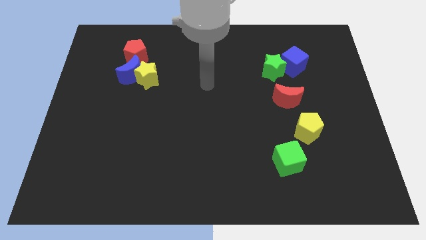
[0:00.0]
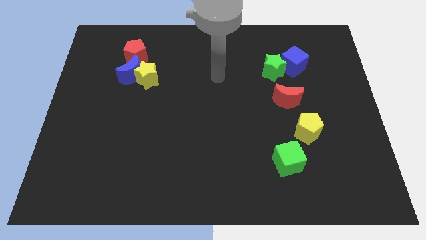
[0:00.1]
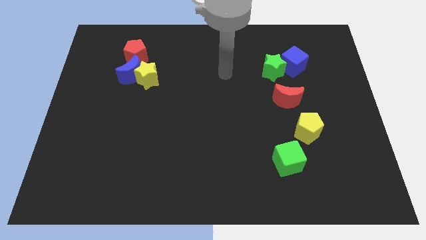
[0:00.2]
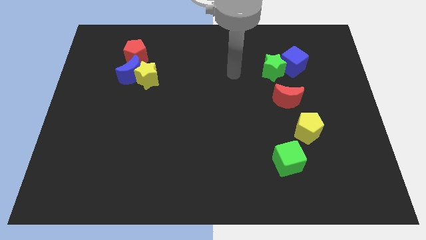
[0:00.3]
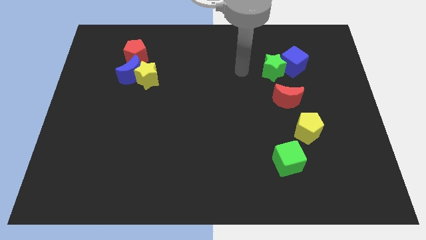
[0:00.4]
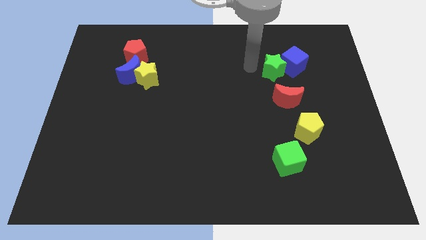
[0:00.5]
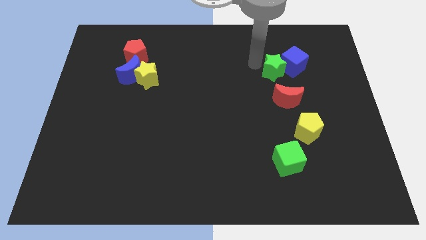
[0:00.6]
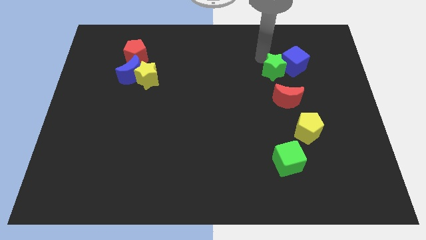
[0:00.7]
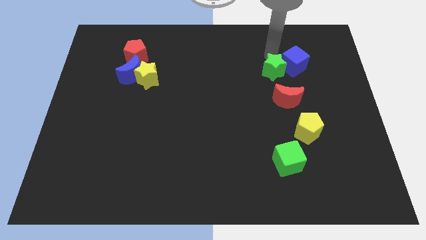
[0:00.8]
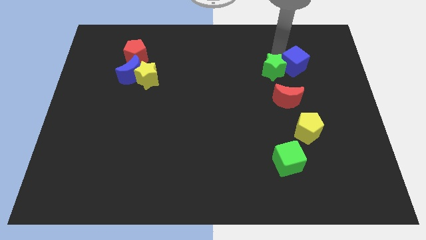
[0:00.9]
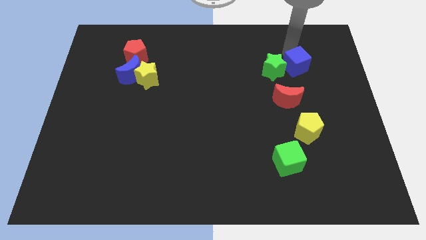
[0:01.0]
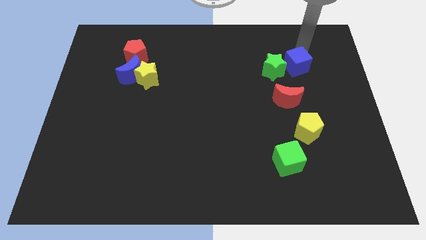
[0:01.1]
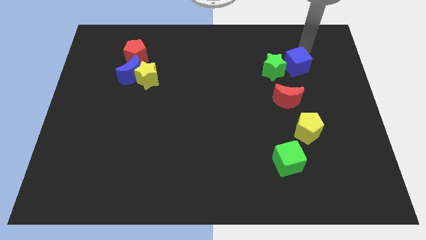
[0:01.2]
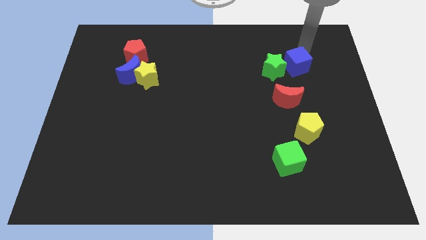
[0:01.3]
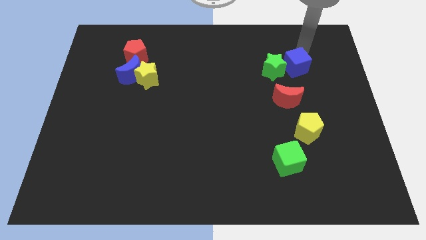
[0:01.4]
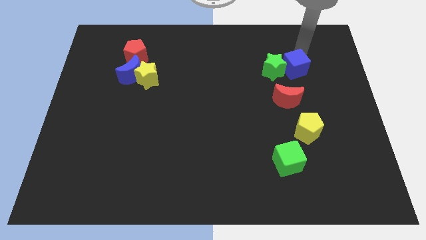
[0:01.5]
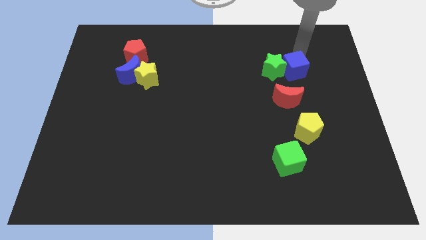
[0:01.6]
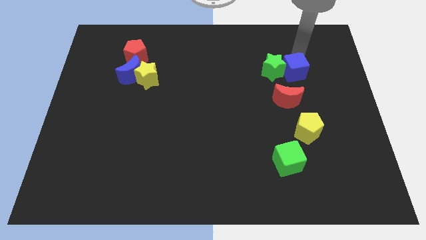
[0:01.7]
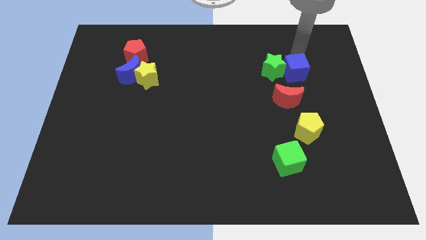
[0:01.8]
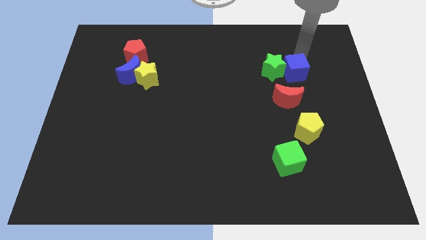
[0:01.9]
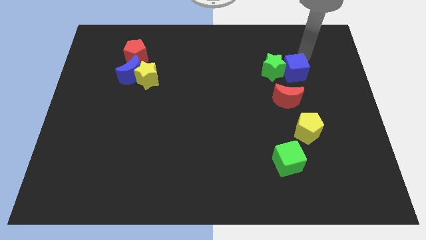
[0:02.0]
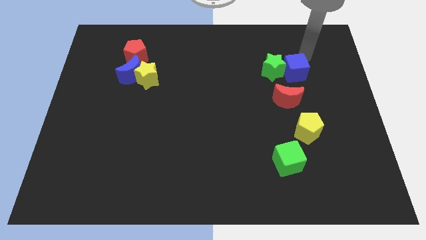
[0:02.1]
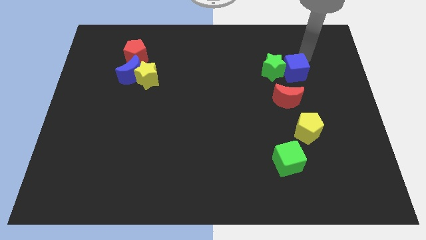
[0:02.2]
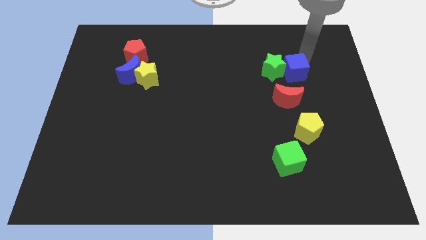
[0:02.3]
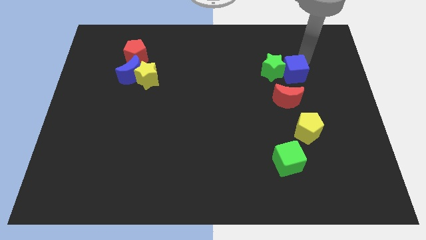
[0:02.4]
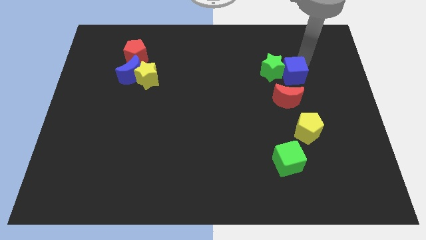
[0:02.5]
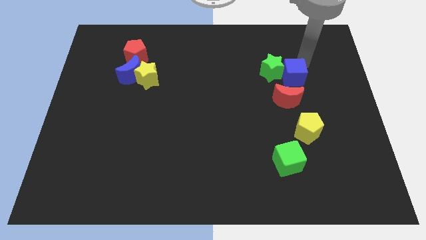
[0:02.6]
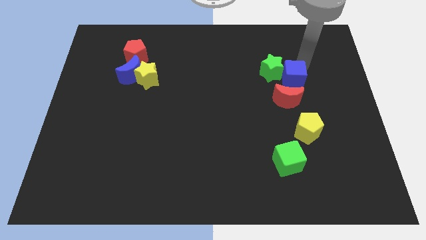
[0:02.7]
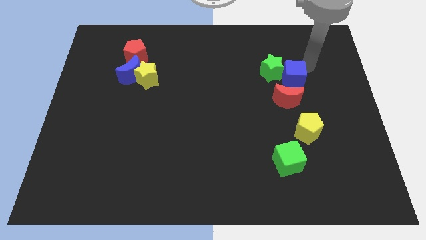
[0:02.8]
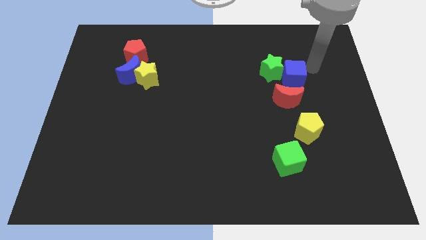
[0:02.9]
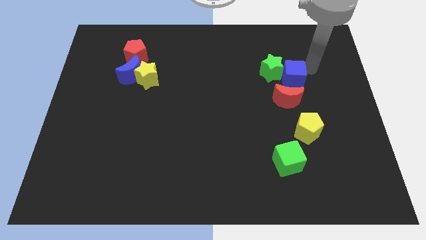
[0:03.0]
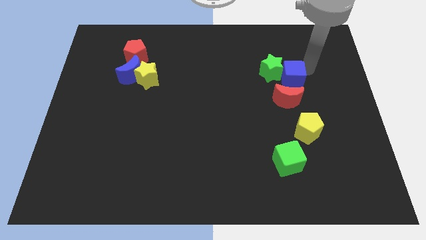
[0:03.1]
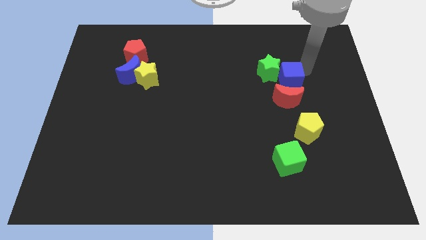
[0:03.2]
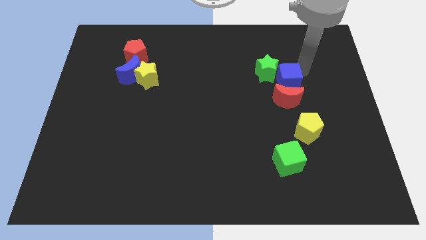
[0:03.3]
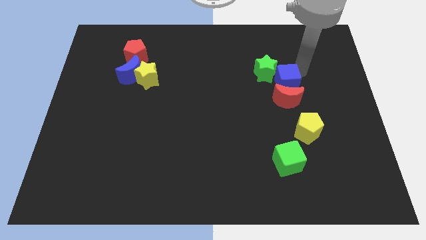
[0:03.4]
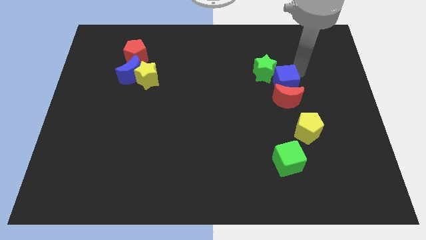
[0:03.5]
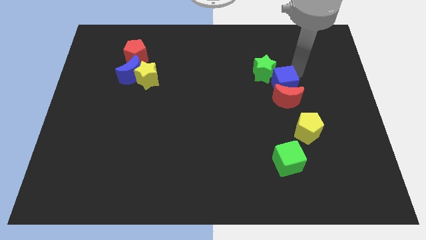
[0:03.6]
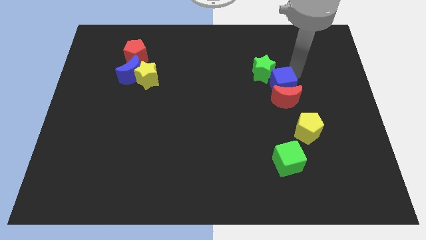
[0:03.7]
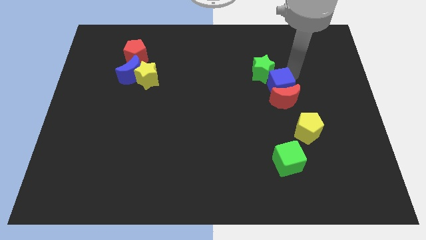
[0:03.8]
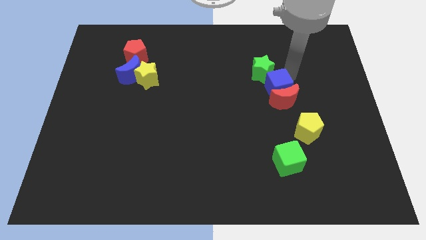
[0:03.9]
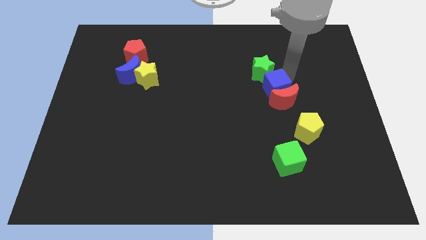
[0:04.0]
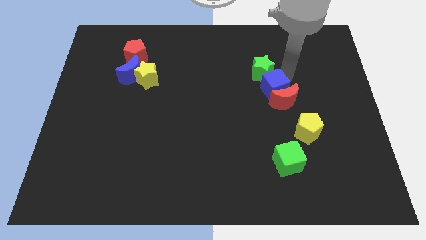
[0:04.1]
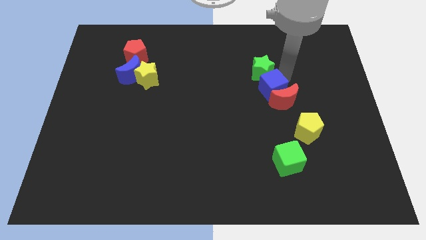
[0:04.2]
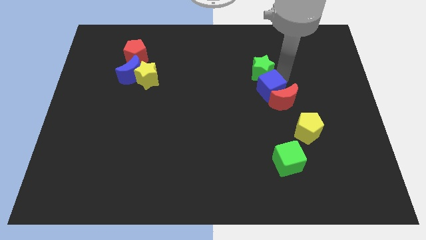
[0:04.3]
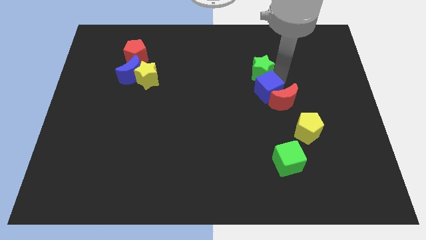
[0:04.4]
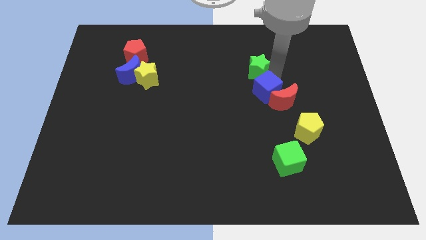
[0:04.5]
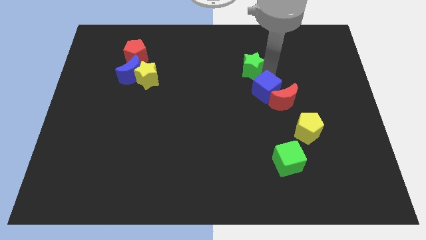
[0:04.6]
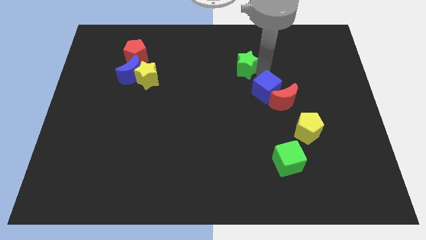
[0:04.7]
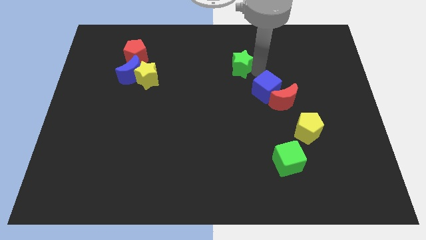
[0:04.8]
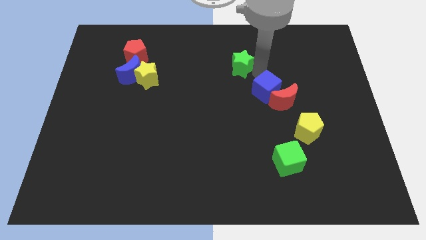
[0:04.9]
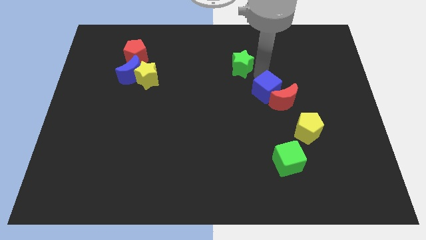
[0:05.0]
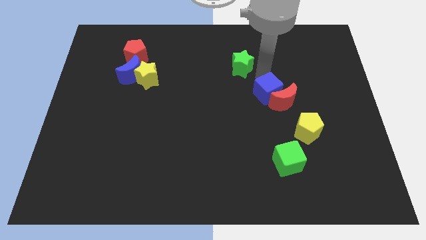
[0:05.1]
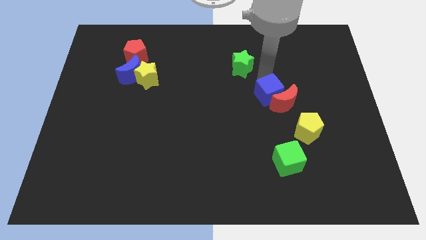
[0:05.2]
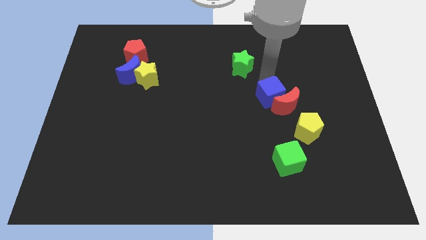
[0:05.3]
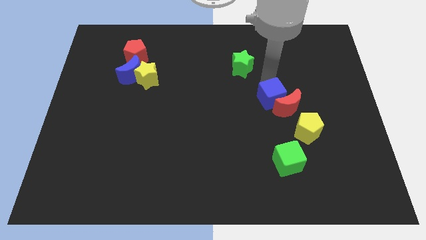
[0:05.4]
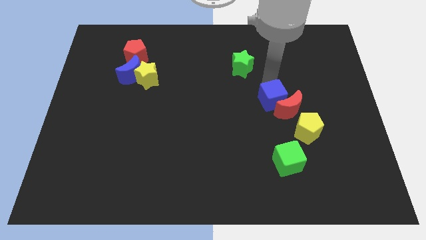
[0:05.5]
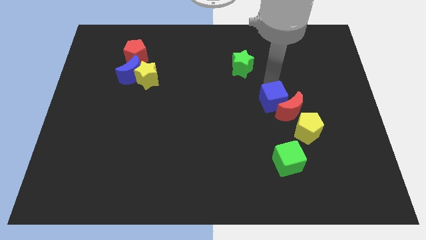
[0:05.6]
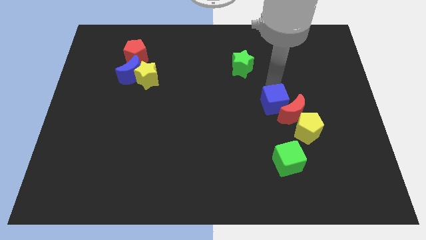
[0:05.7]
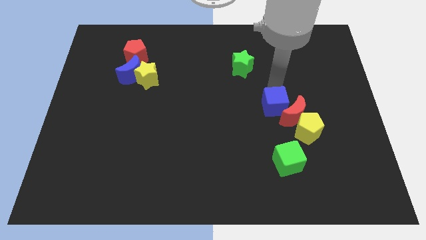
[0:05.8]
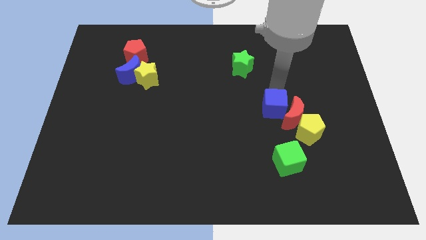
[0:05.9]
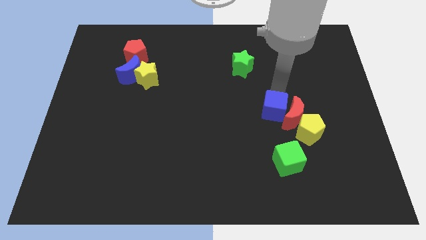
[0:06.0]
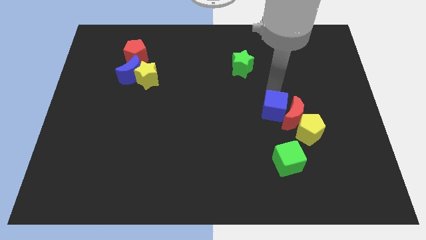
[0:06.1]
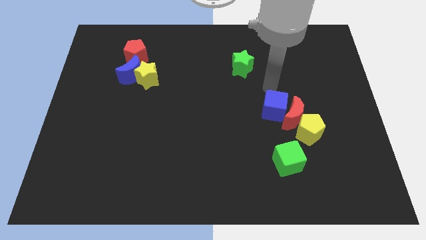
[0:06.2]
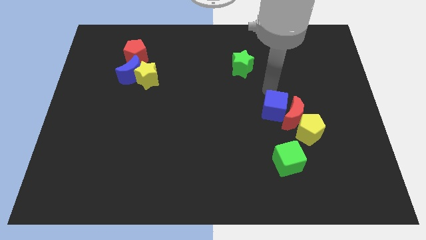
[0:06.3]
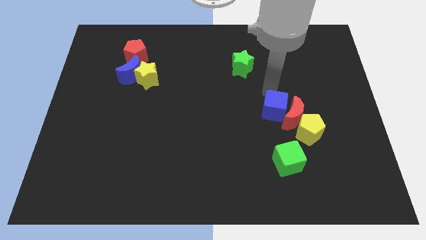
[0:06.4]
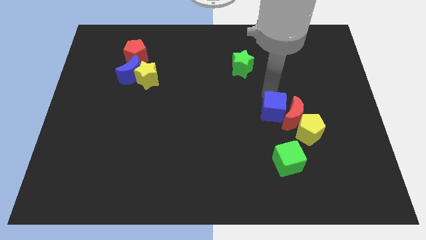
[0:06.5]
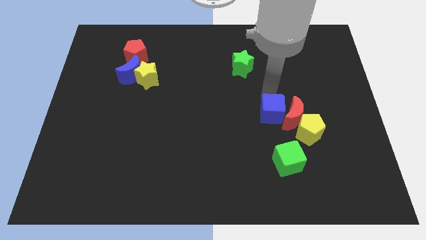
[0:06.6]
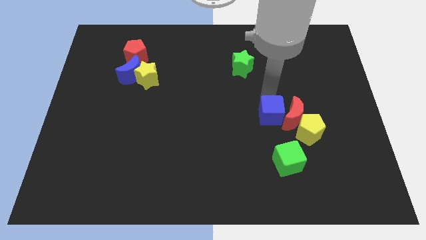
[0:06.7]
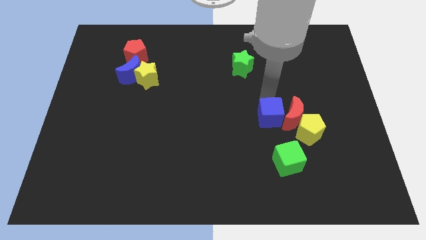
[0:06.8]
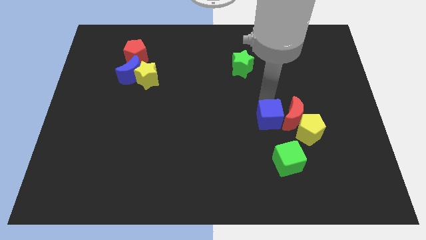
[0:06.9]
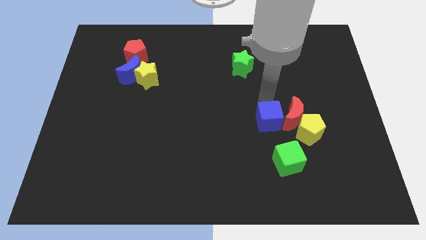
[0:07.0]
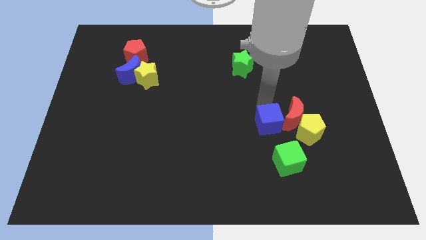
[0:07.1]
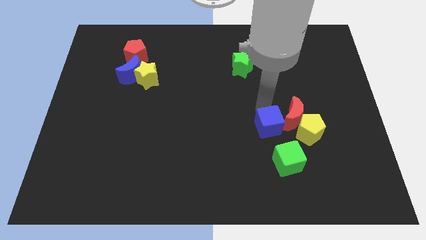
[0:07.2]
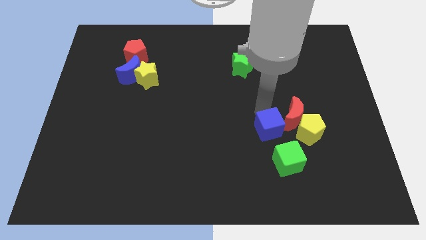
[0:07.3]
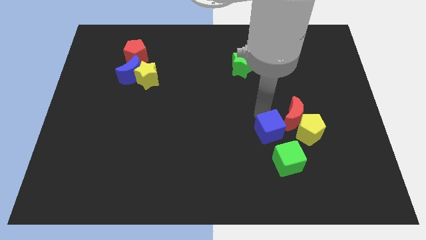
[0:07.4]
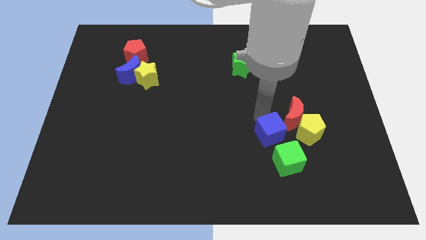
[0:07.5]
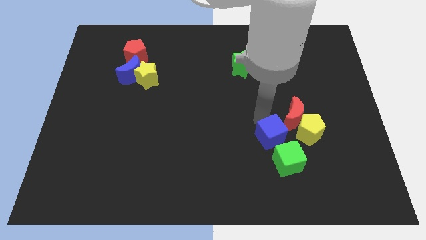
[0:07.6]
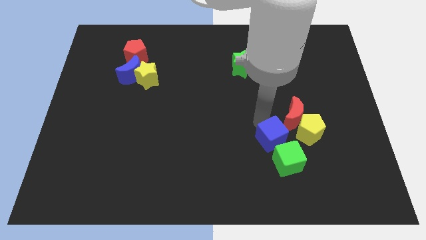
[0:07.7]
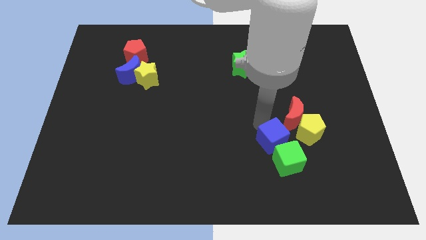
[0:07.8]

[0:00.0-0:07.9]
move the blue cube to the green cube
